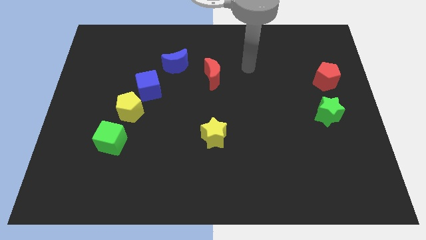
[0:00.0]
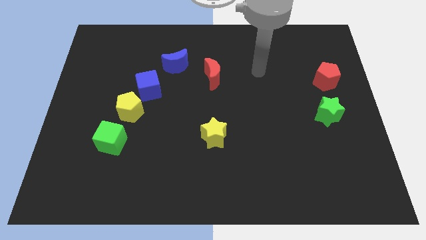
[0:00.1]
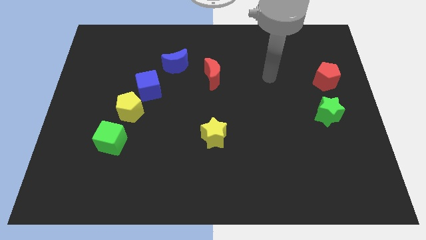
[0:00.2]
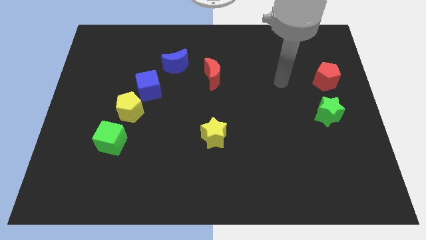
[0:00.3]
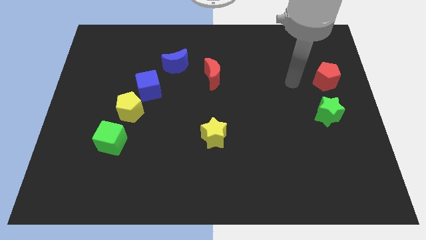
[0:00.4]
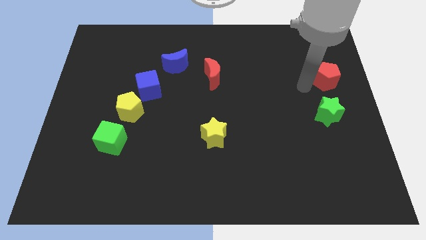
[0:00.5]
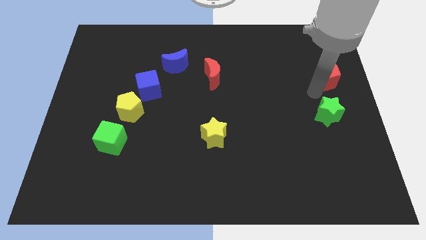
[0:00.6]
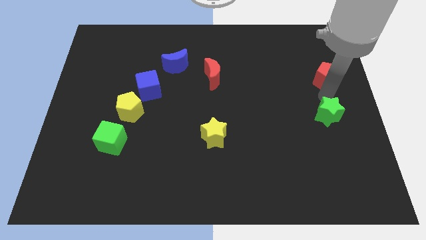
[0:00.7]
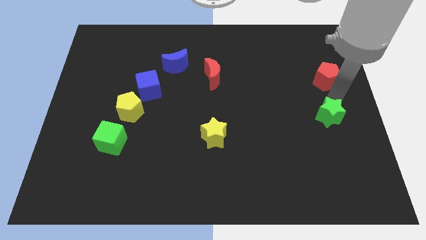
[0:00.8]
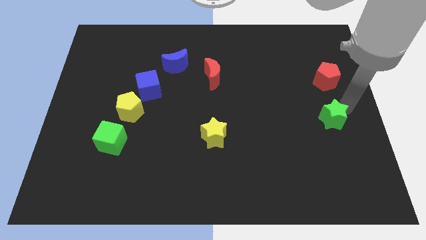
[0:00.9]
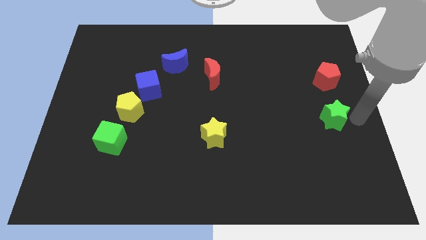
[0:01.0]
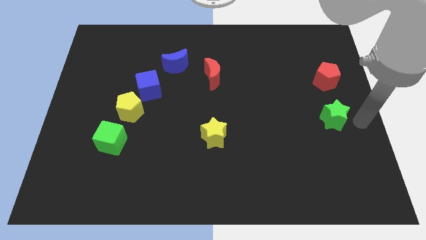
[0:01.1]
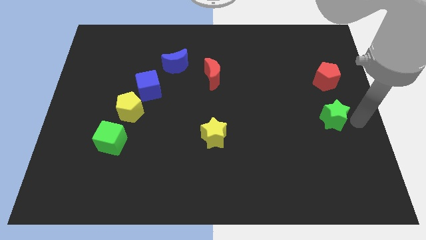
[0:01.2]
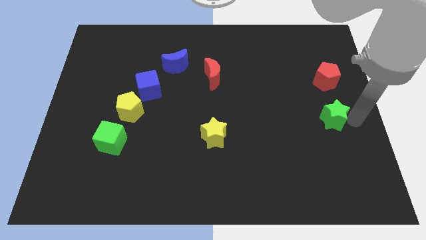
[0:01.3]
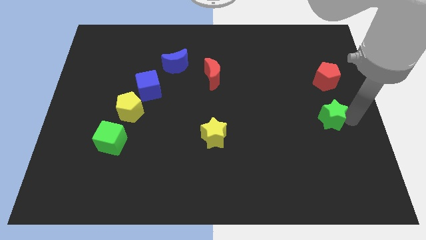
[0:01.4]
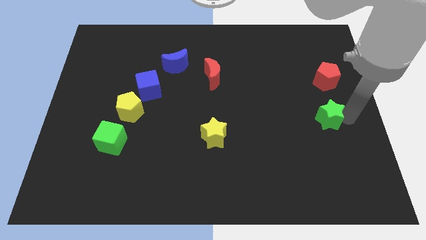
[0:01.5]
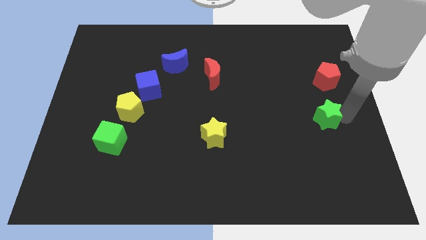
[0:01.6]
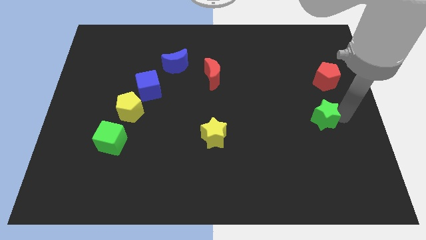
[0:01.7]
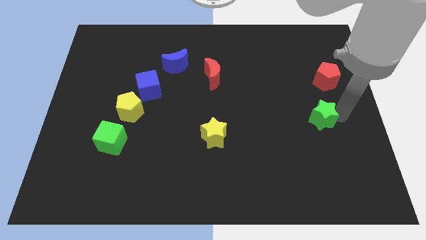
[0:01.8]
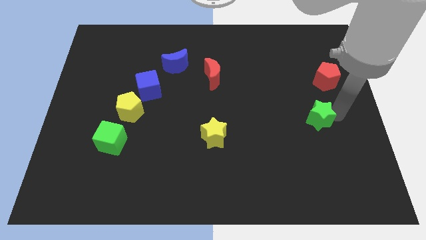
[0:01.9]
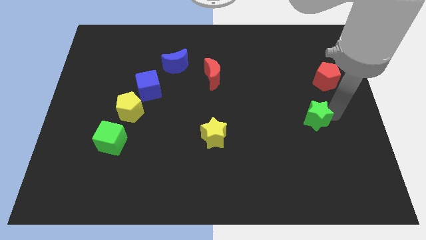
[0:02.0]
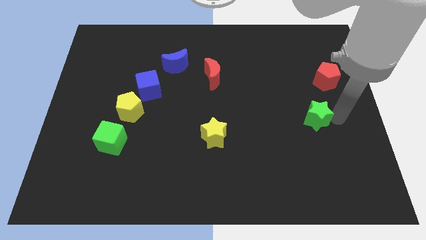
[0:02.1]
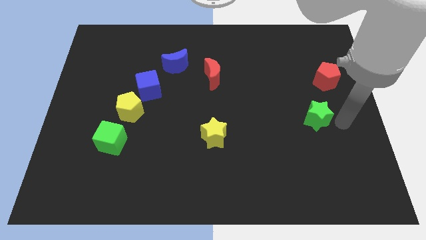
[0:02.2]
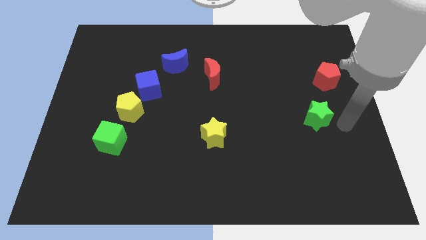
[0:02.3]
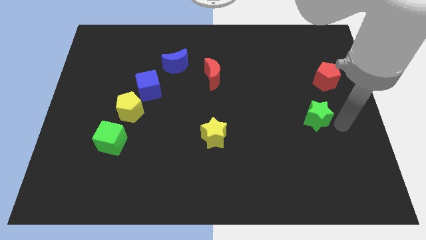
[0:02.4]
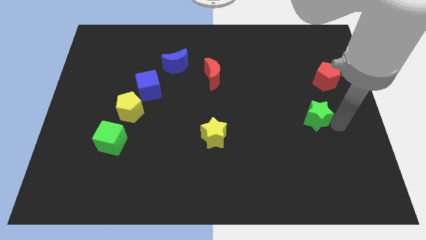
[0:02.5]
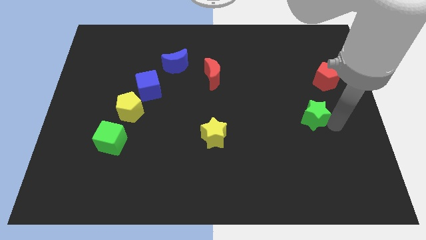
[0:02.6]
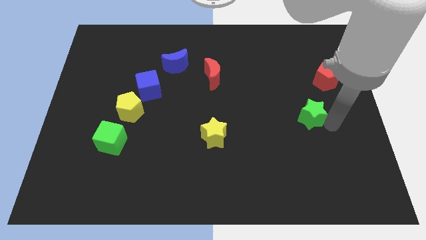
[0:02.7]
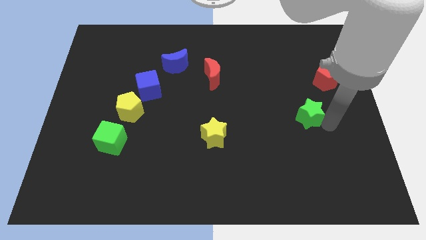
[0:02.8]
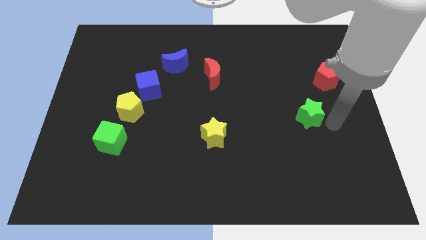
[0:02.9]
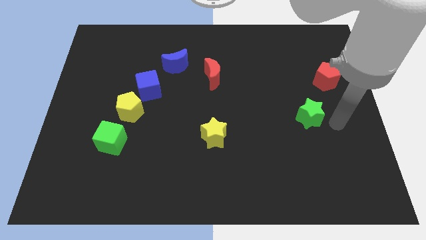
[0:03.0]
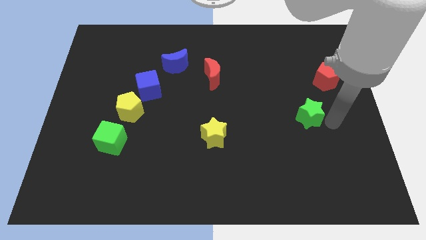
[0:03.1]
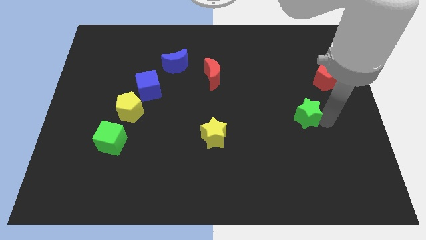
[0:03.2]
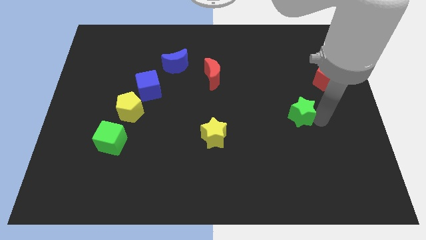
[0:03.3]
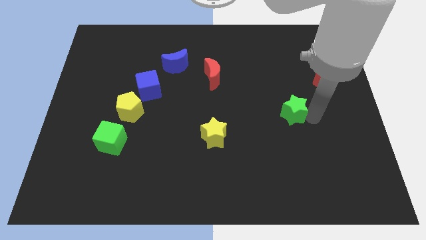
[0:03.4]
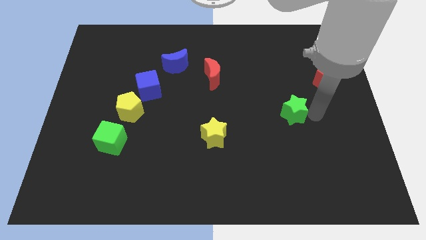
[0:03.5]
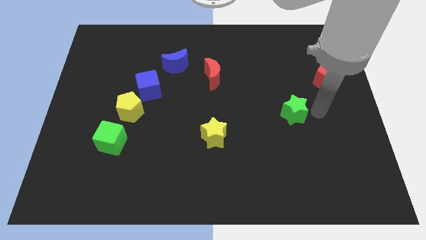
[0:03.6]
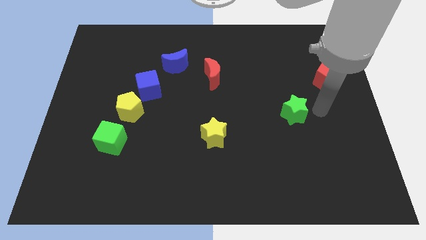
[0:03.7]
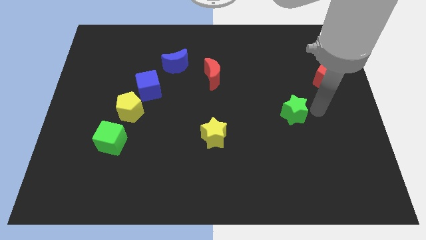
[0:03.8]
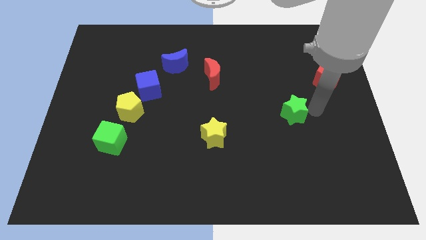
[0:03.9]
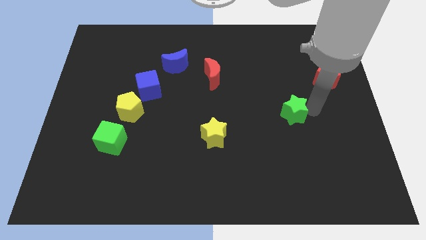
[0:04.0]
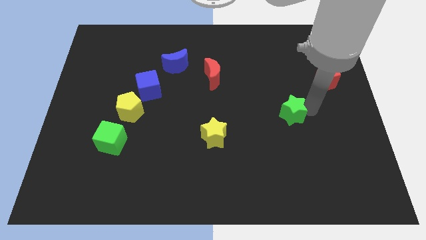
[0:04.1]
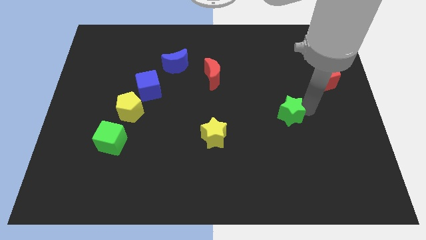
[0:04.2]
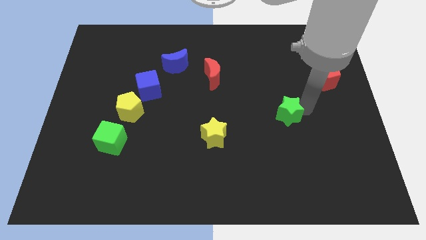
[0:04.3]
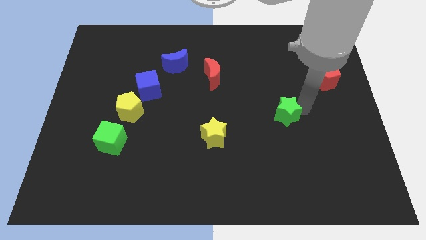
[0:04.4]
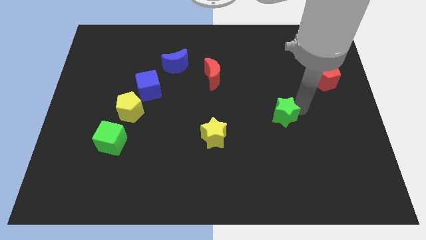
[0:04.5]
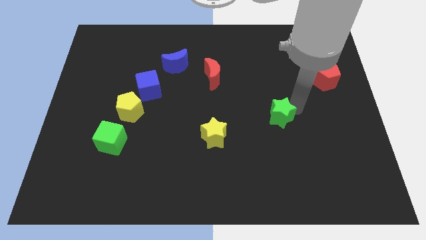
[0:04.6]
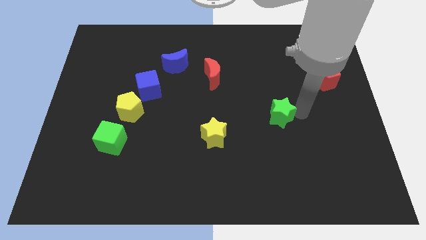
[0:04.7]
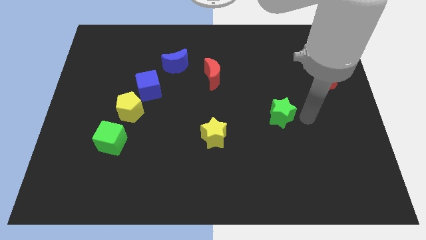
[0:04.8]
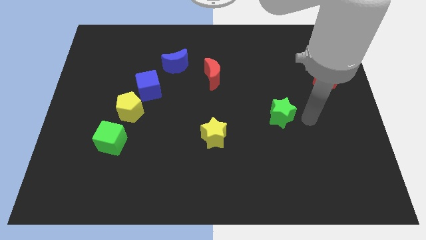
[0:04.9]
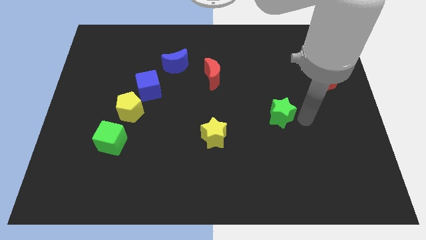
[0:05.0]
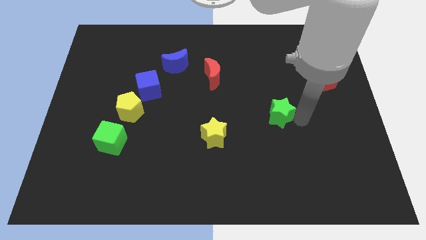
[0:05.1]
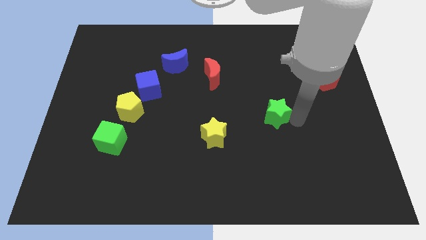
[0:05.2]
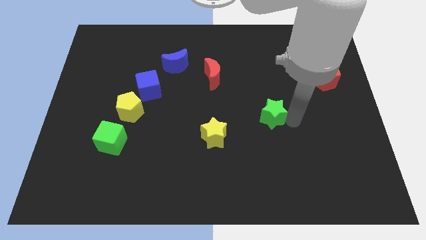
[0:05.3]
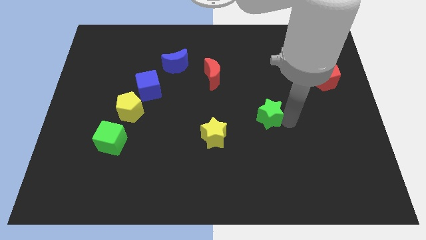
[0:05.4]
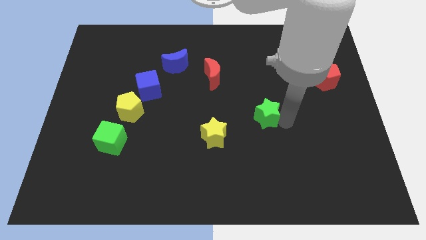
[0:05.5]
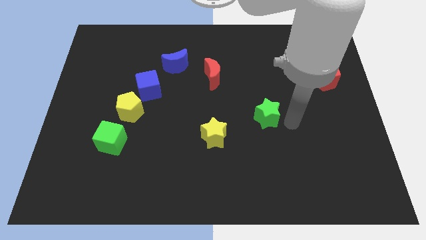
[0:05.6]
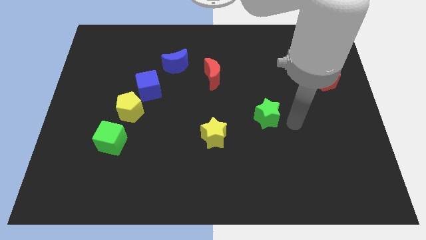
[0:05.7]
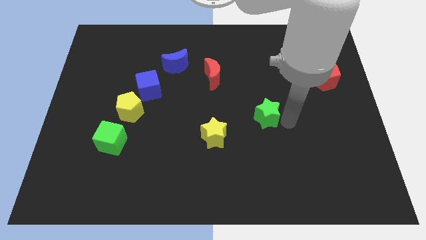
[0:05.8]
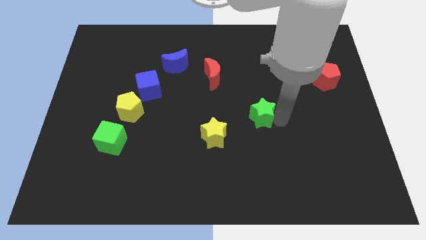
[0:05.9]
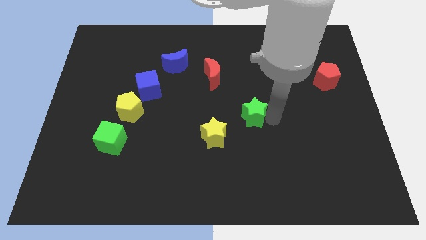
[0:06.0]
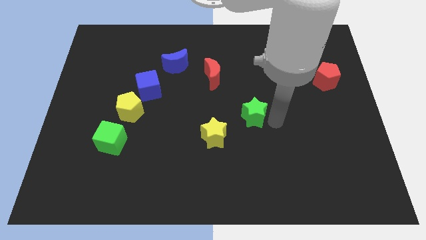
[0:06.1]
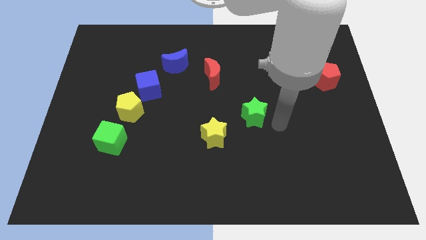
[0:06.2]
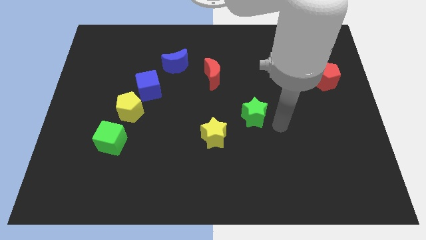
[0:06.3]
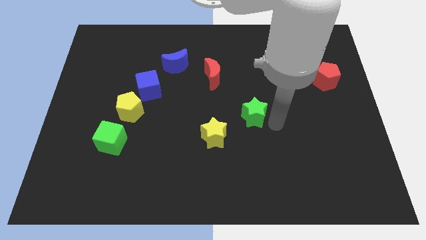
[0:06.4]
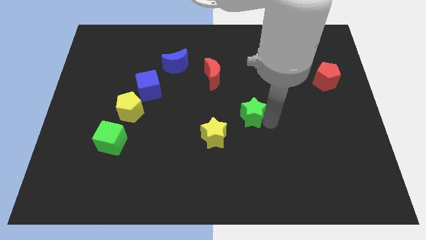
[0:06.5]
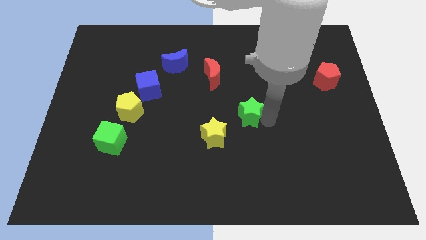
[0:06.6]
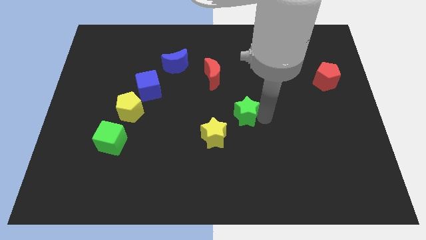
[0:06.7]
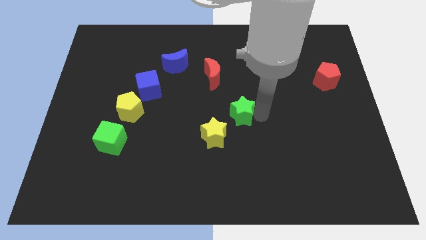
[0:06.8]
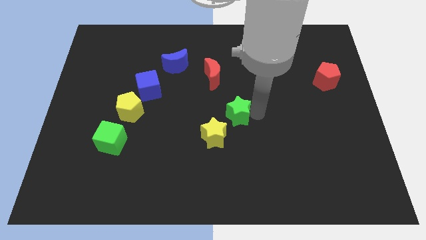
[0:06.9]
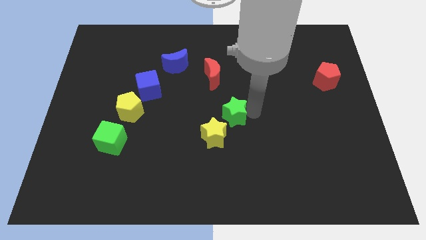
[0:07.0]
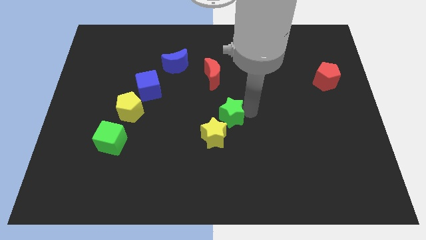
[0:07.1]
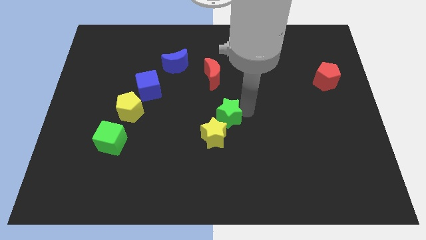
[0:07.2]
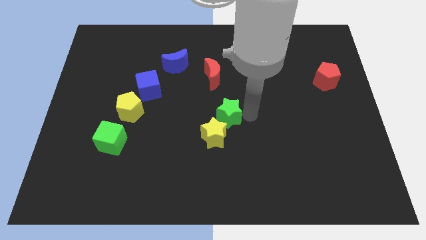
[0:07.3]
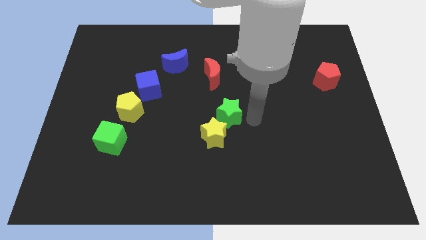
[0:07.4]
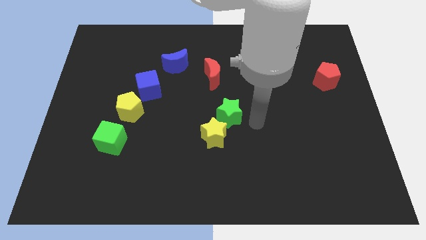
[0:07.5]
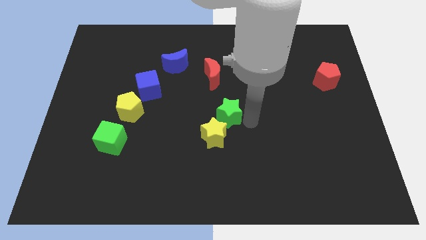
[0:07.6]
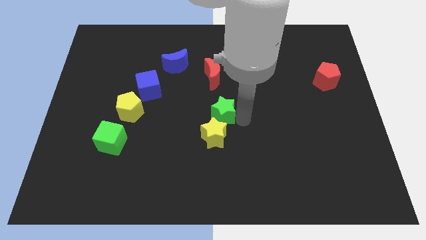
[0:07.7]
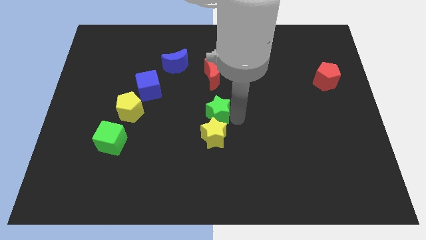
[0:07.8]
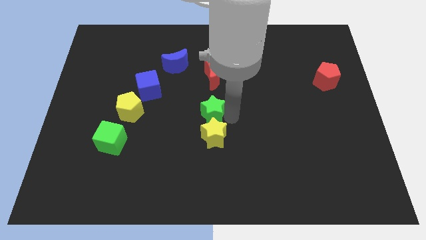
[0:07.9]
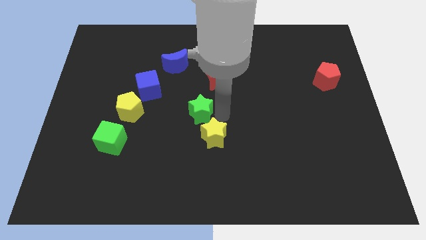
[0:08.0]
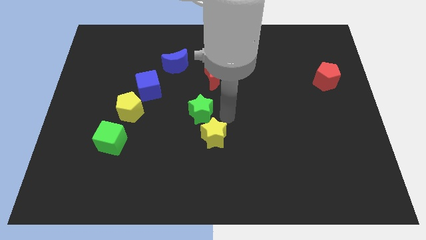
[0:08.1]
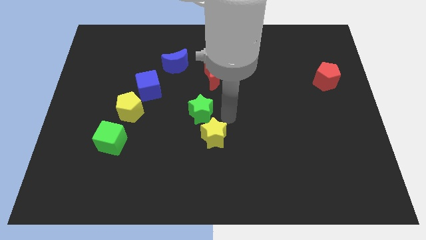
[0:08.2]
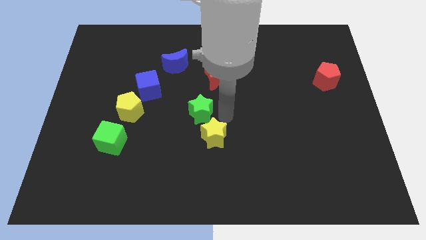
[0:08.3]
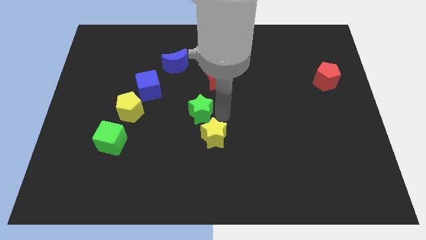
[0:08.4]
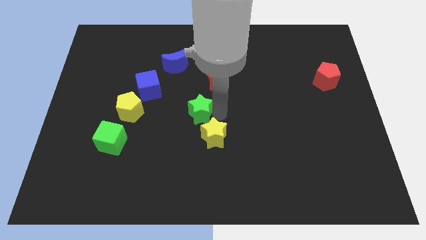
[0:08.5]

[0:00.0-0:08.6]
move the green star right of the yellow pentagon
